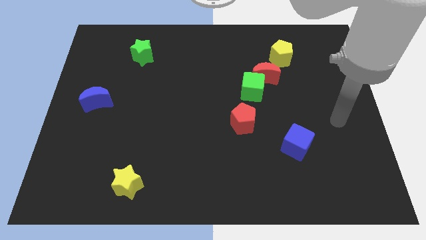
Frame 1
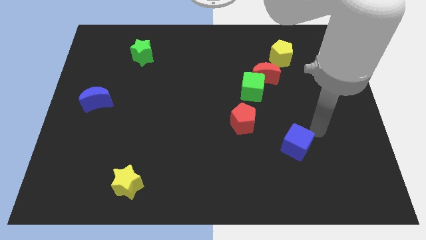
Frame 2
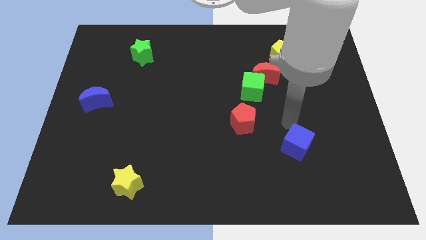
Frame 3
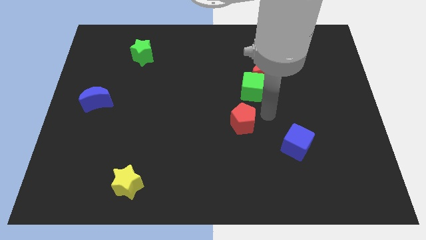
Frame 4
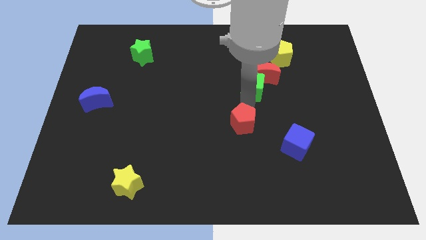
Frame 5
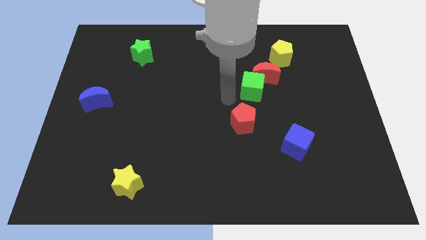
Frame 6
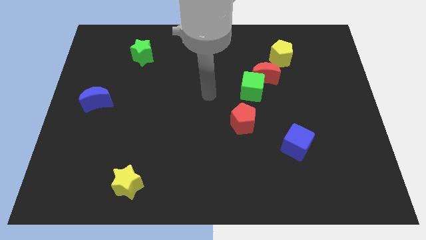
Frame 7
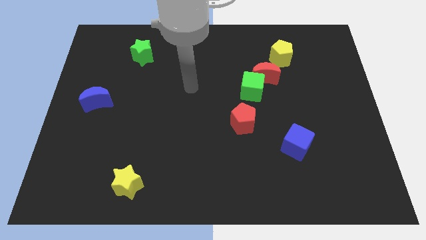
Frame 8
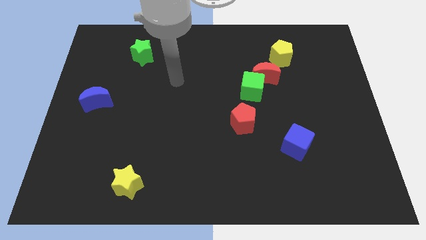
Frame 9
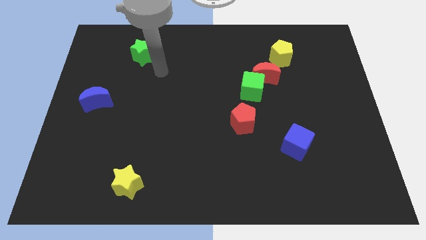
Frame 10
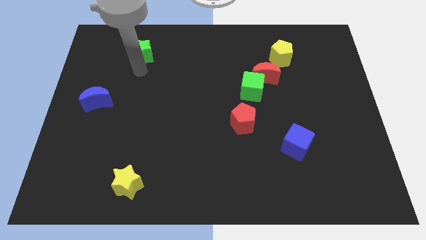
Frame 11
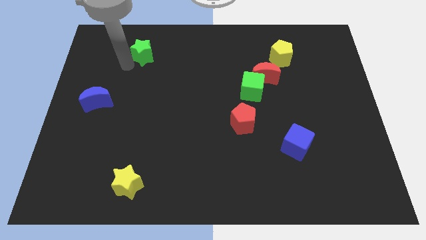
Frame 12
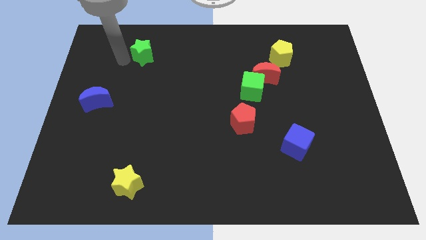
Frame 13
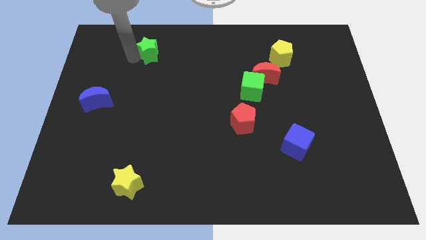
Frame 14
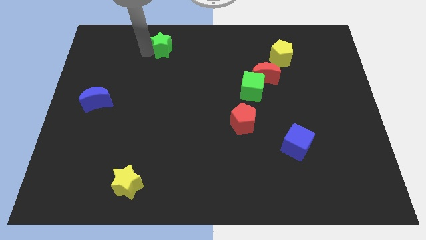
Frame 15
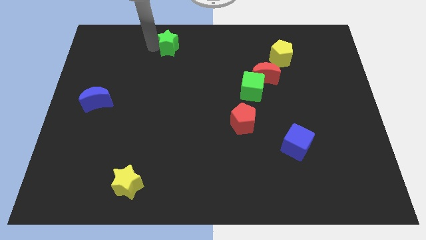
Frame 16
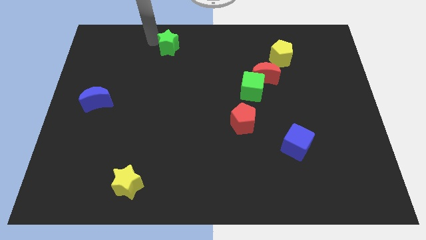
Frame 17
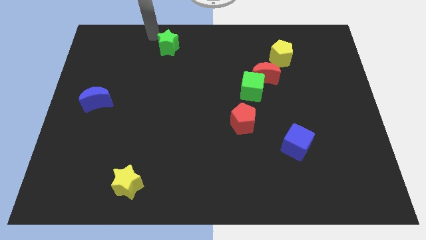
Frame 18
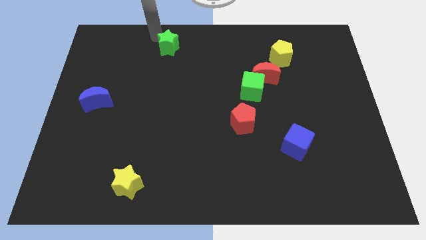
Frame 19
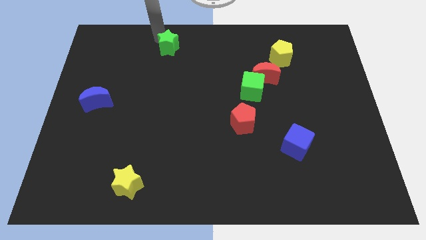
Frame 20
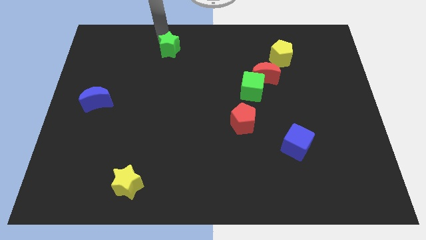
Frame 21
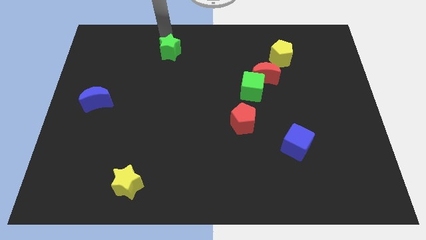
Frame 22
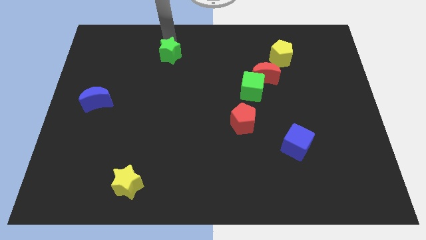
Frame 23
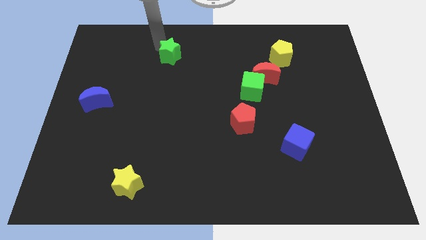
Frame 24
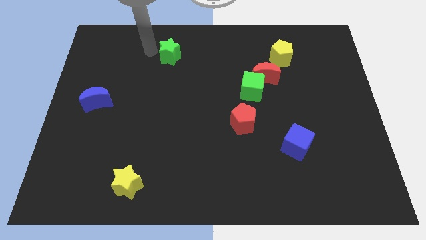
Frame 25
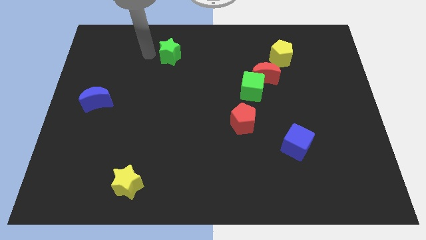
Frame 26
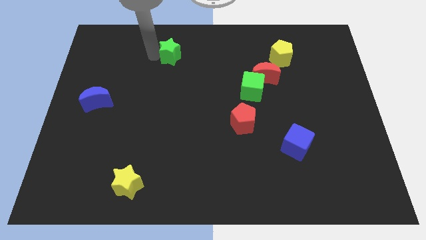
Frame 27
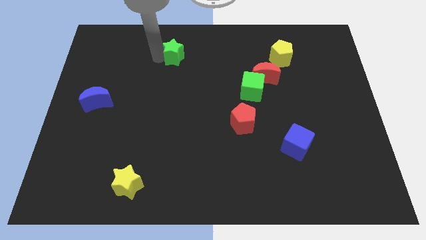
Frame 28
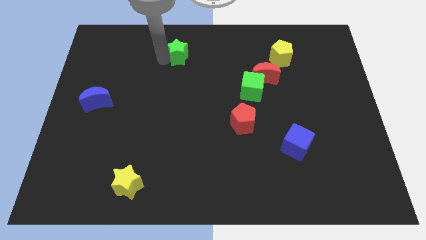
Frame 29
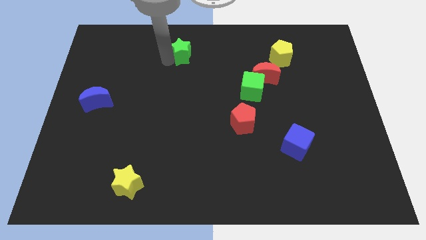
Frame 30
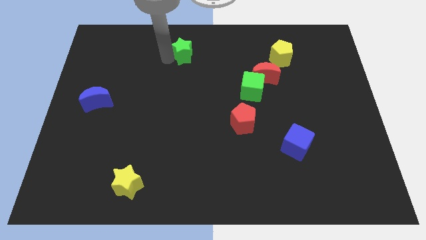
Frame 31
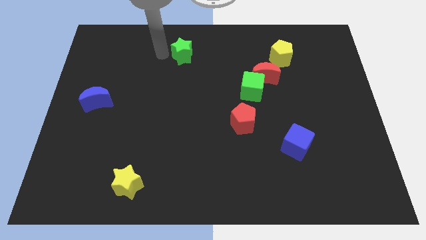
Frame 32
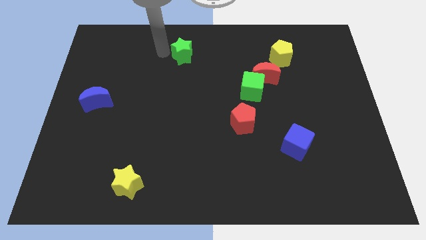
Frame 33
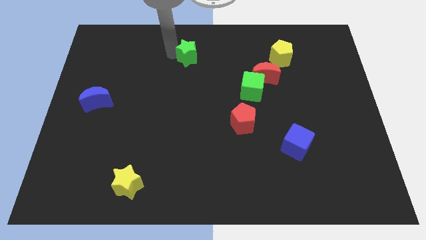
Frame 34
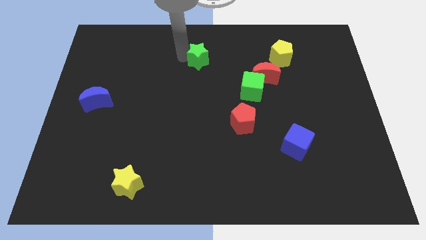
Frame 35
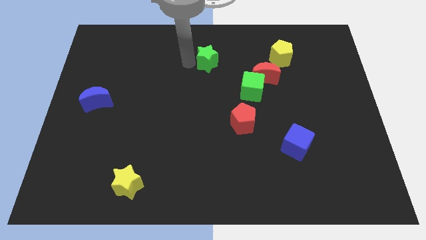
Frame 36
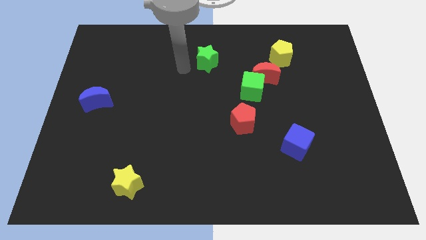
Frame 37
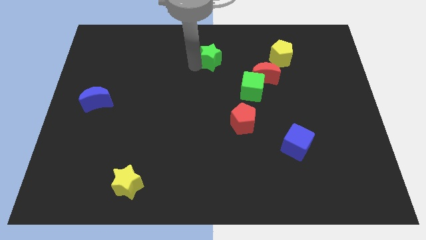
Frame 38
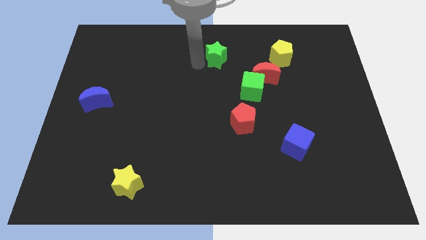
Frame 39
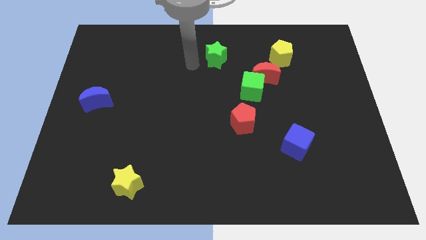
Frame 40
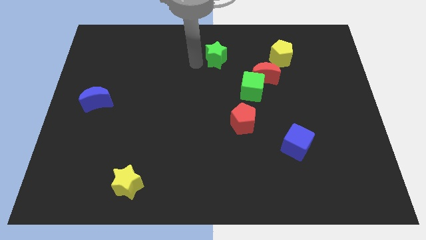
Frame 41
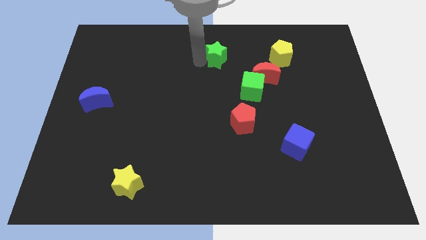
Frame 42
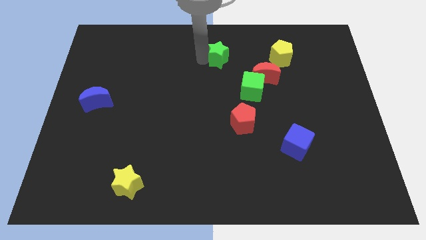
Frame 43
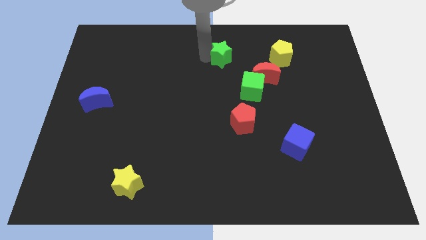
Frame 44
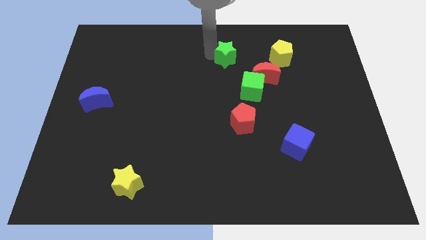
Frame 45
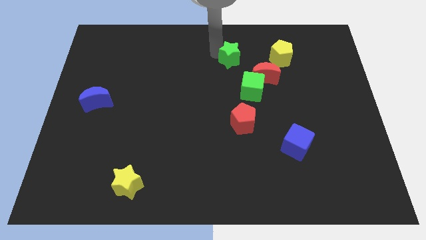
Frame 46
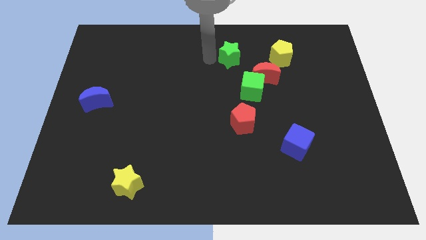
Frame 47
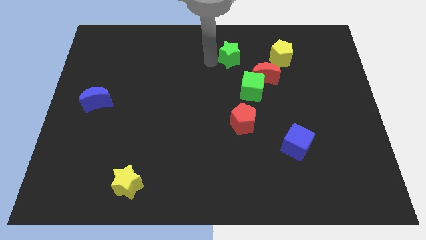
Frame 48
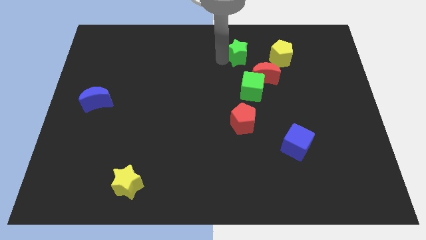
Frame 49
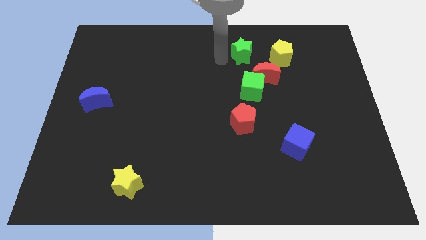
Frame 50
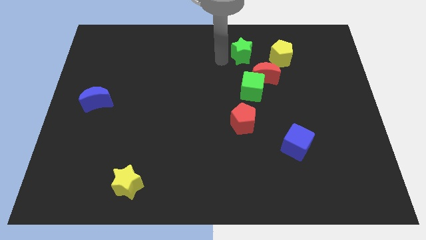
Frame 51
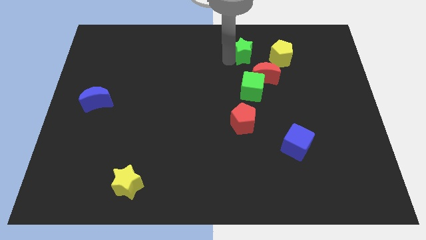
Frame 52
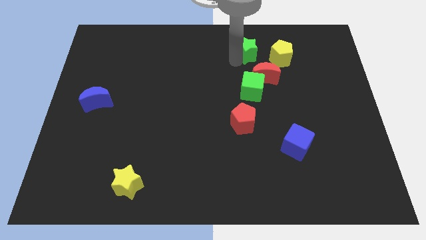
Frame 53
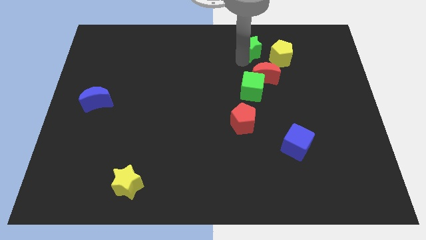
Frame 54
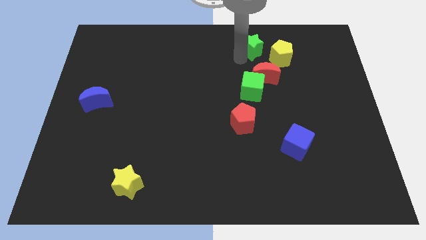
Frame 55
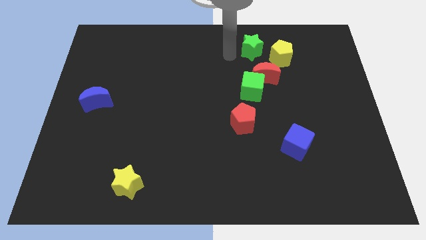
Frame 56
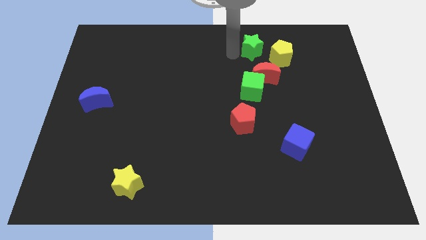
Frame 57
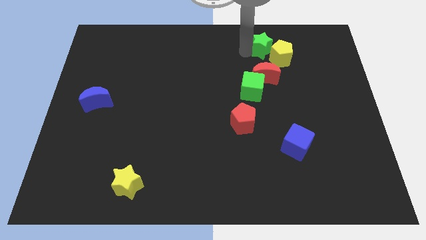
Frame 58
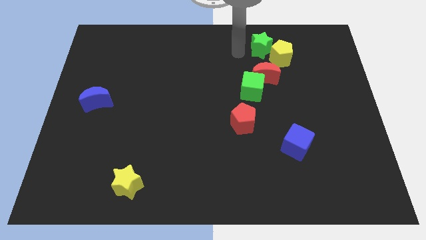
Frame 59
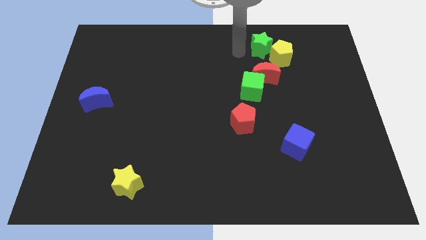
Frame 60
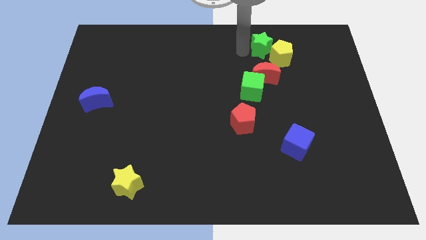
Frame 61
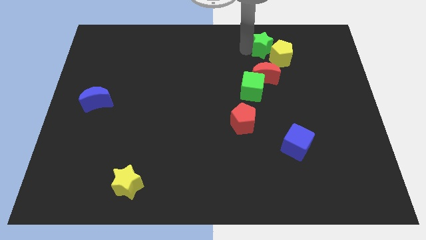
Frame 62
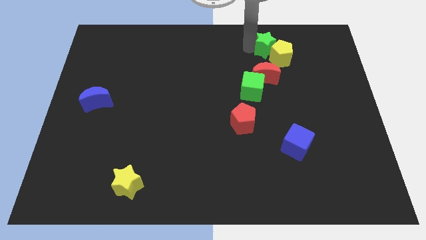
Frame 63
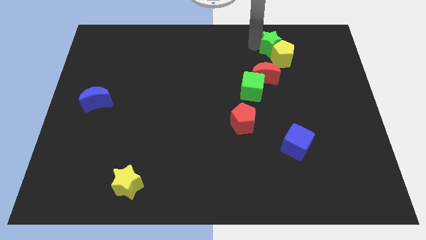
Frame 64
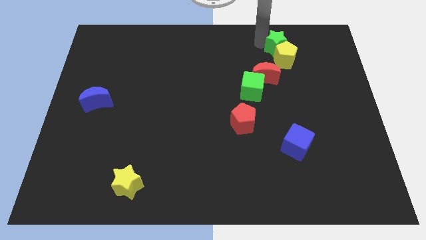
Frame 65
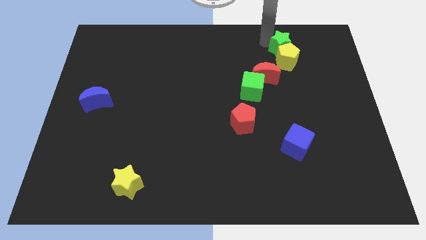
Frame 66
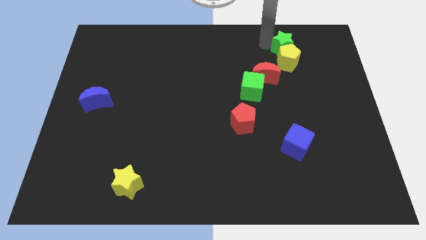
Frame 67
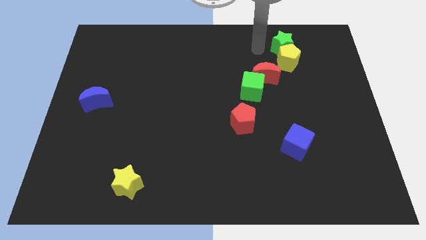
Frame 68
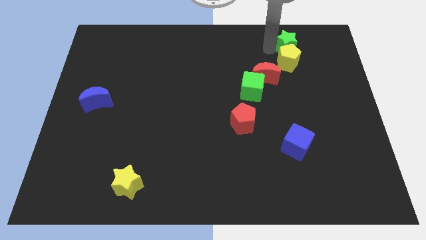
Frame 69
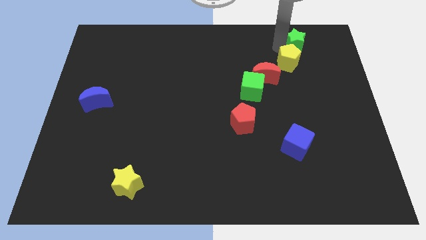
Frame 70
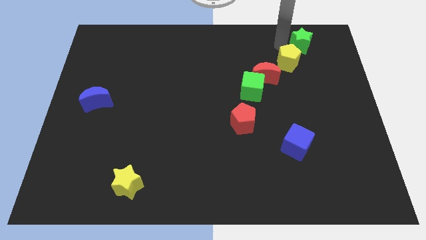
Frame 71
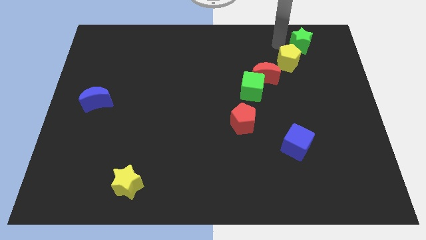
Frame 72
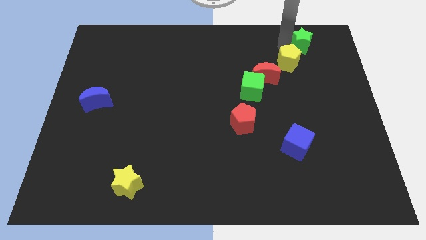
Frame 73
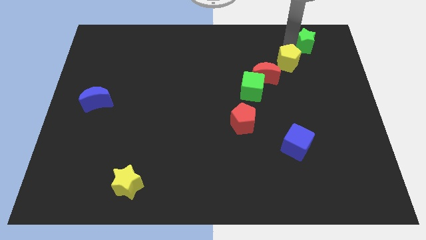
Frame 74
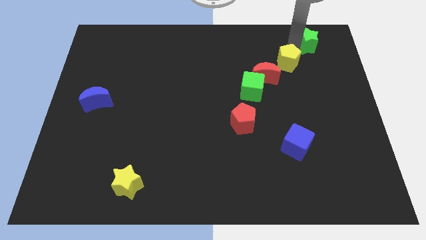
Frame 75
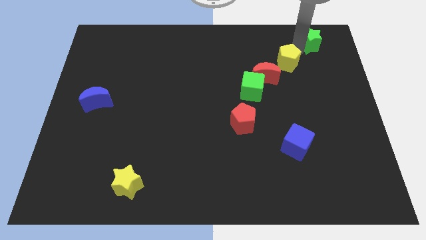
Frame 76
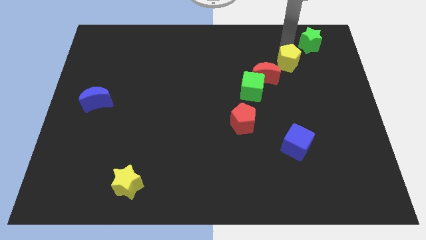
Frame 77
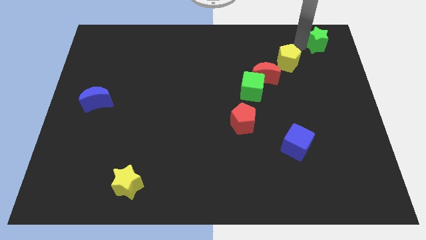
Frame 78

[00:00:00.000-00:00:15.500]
put the green star to the top right
